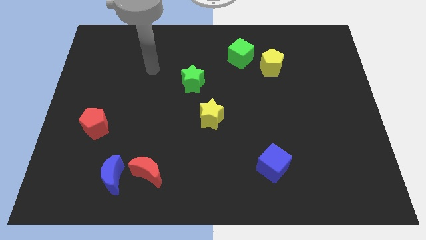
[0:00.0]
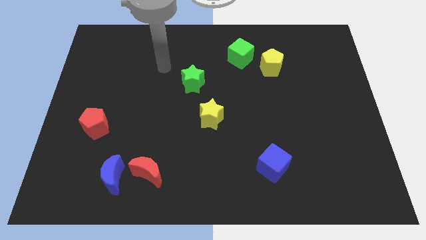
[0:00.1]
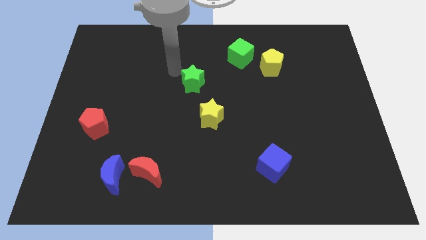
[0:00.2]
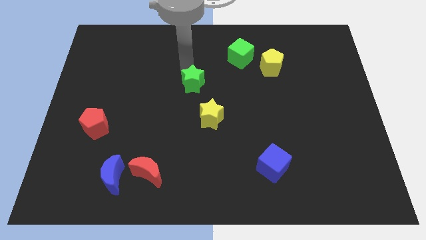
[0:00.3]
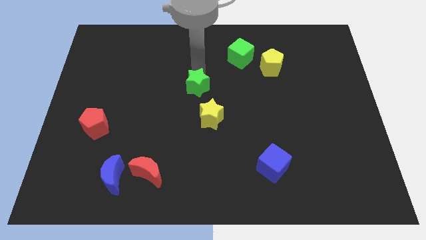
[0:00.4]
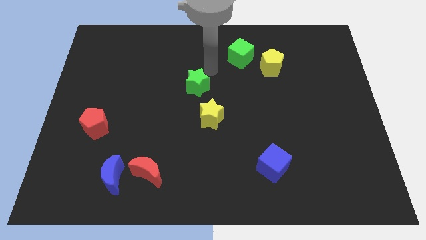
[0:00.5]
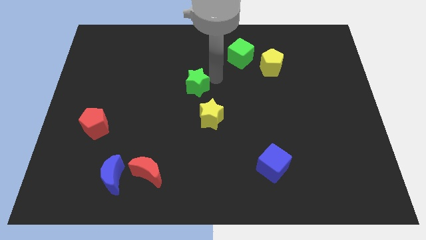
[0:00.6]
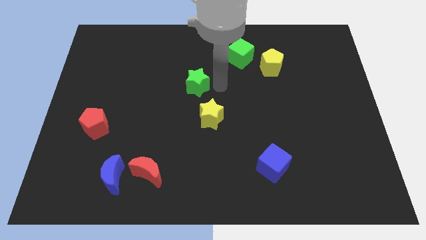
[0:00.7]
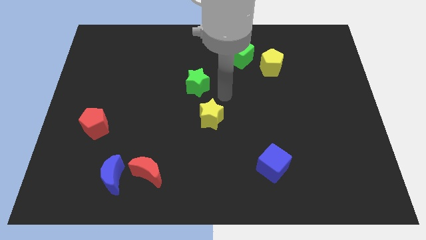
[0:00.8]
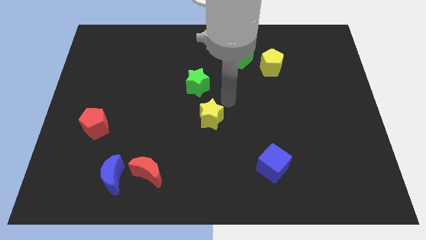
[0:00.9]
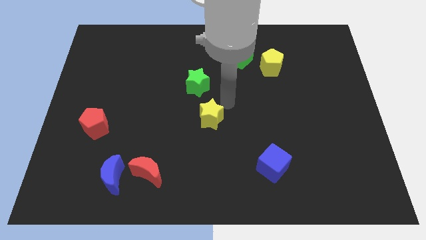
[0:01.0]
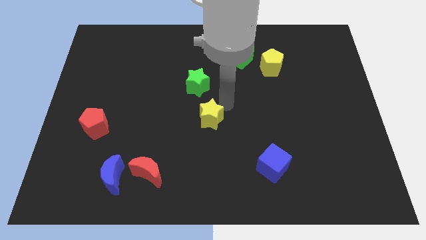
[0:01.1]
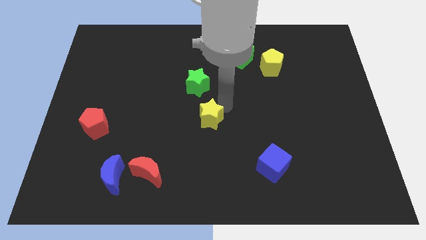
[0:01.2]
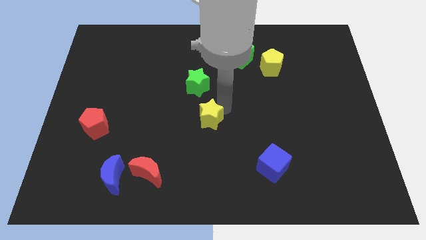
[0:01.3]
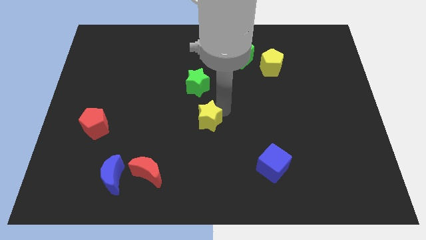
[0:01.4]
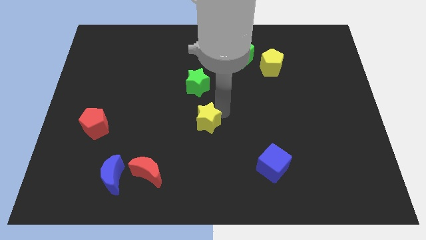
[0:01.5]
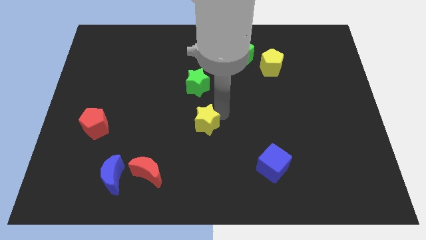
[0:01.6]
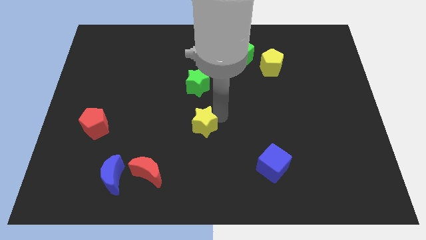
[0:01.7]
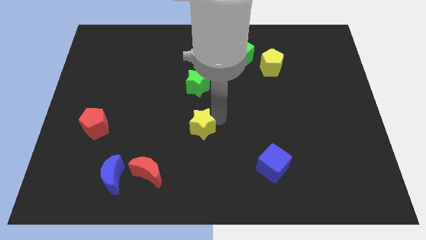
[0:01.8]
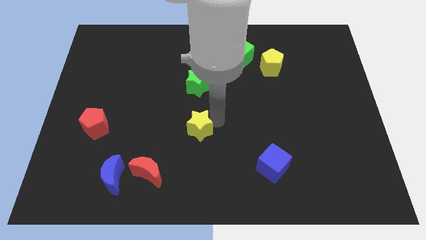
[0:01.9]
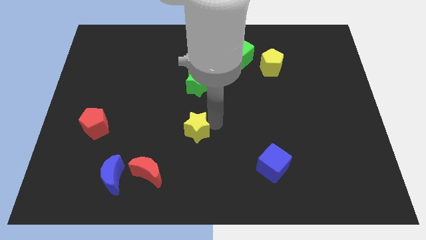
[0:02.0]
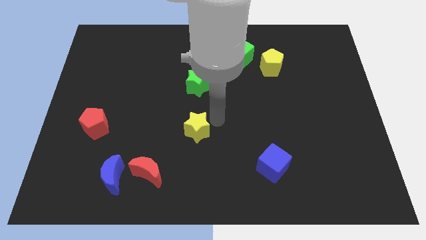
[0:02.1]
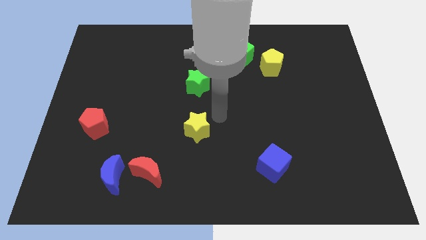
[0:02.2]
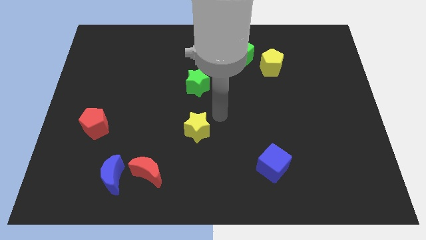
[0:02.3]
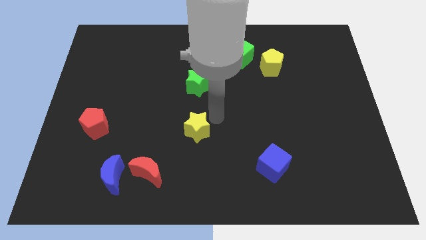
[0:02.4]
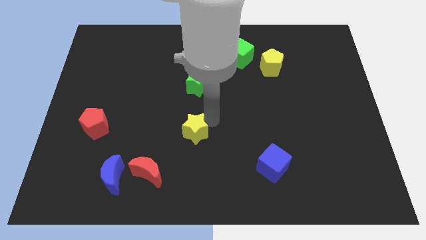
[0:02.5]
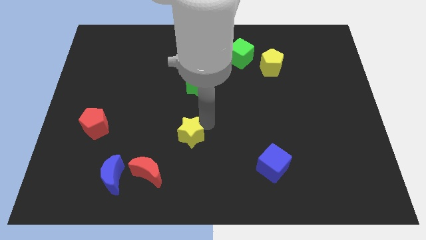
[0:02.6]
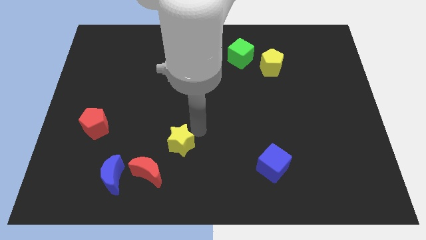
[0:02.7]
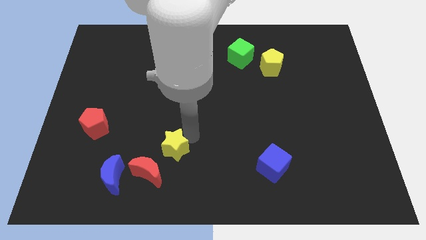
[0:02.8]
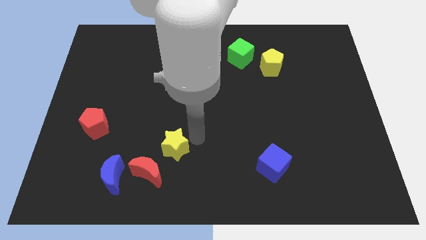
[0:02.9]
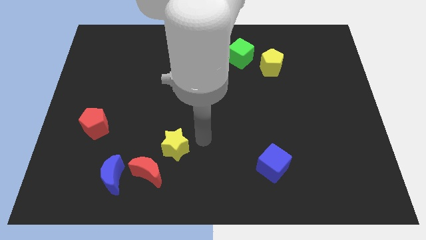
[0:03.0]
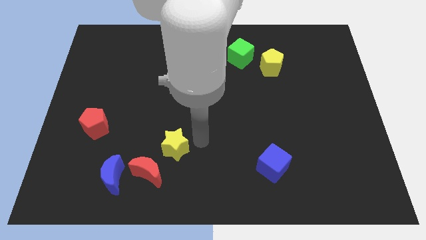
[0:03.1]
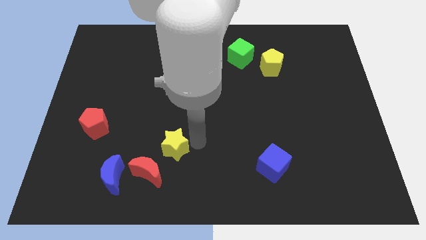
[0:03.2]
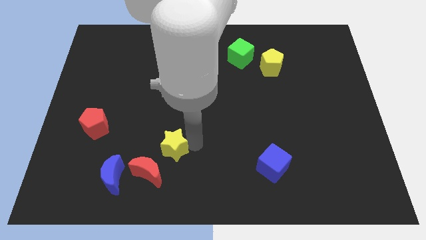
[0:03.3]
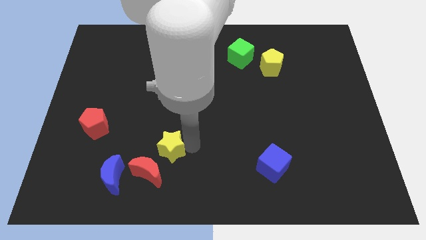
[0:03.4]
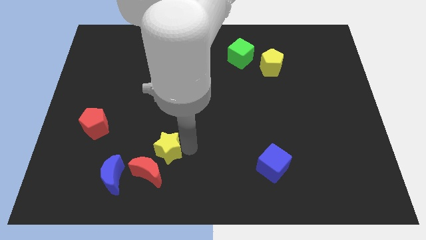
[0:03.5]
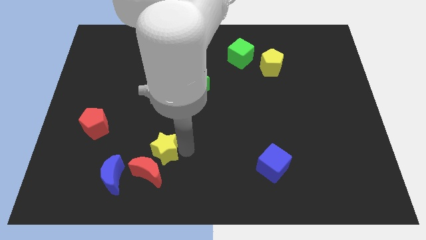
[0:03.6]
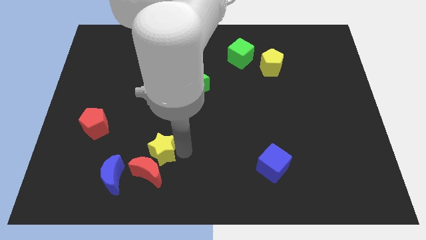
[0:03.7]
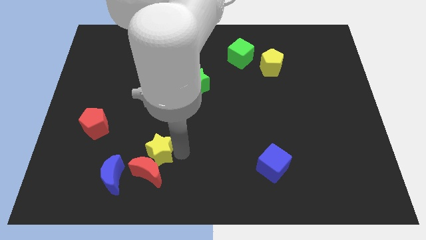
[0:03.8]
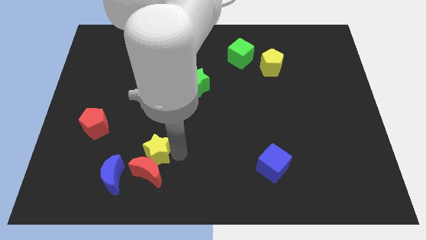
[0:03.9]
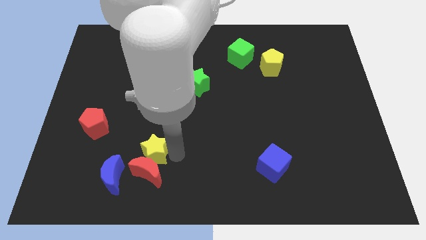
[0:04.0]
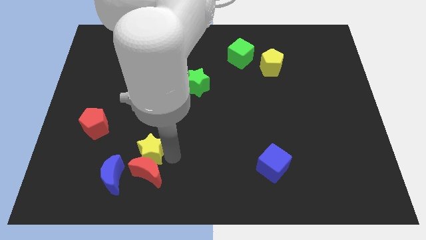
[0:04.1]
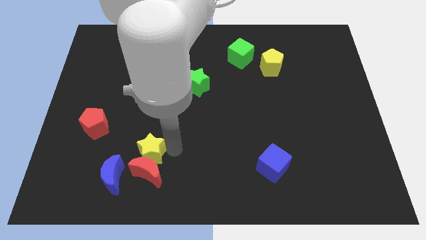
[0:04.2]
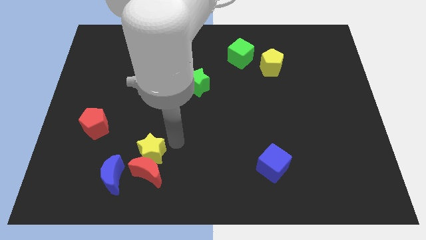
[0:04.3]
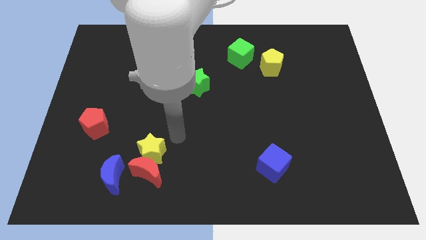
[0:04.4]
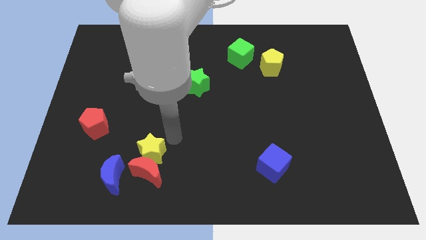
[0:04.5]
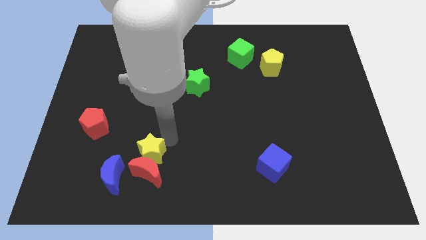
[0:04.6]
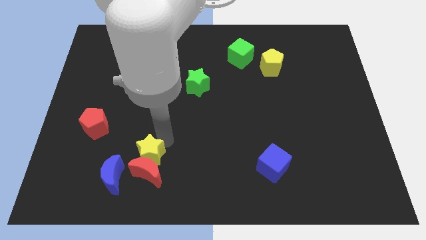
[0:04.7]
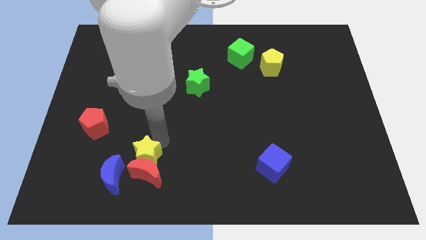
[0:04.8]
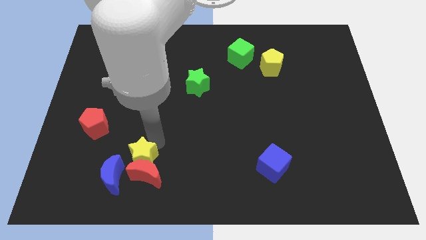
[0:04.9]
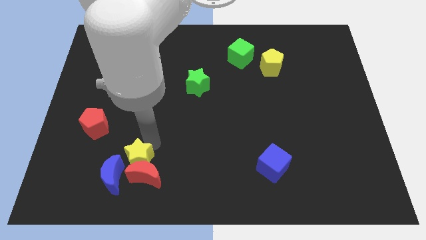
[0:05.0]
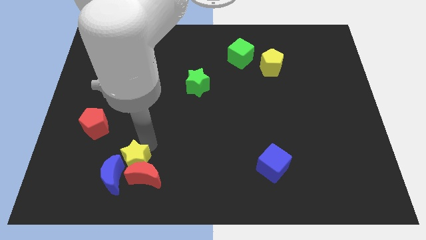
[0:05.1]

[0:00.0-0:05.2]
move the yellow star close to the blue moon

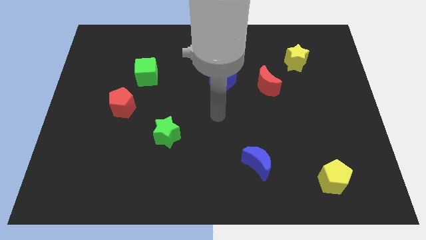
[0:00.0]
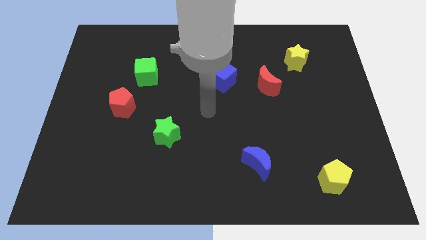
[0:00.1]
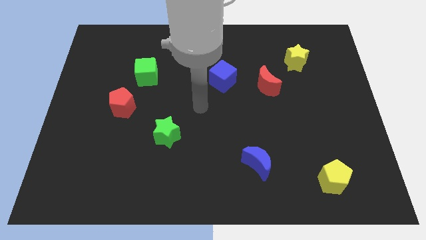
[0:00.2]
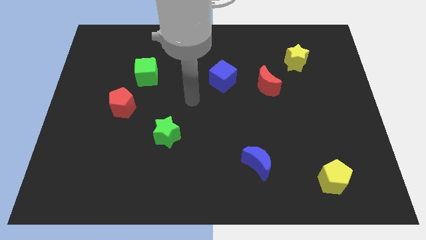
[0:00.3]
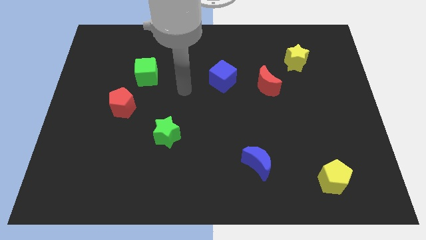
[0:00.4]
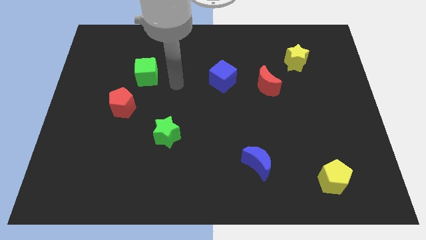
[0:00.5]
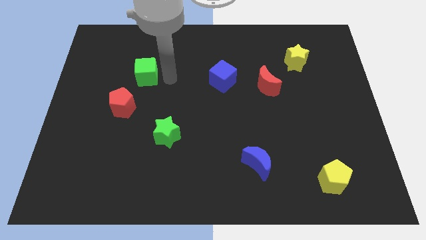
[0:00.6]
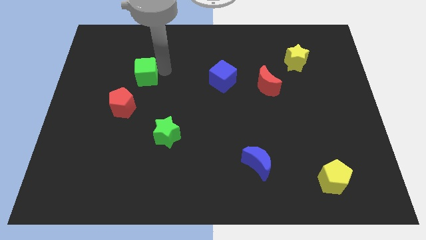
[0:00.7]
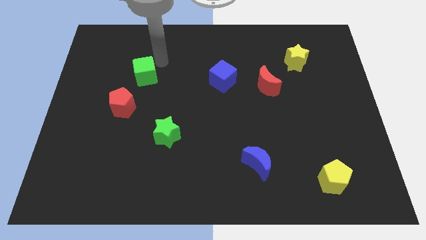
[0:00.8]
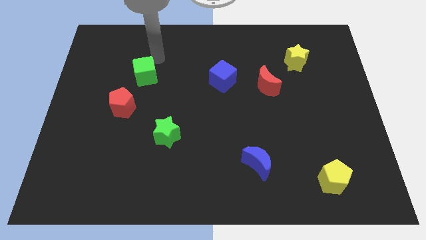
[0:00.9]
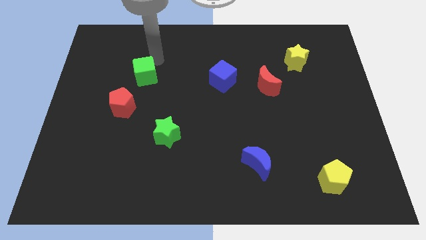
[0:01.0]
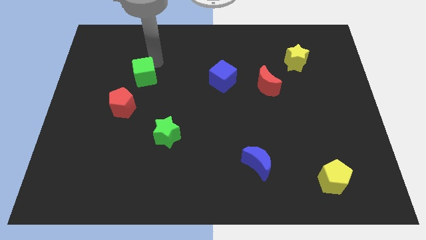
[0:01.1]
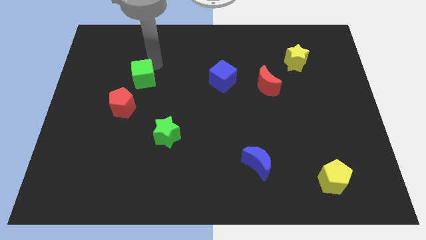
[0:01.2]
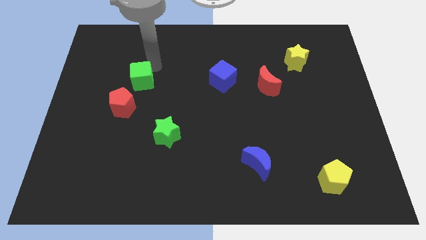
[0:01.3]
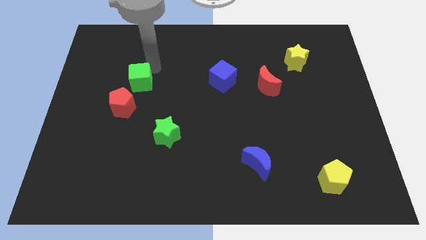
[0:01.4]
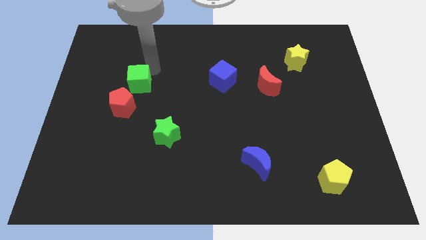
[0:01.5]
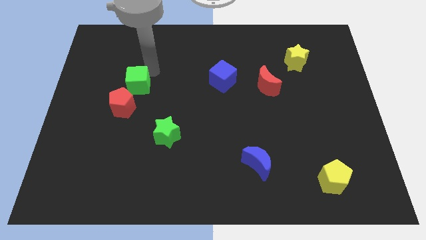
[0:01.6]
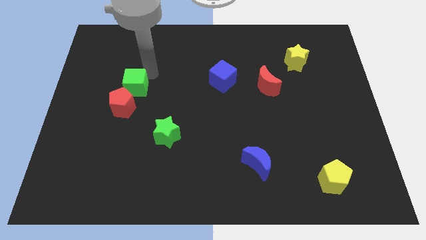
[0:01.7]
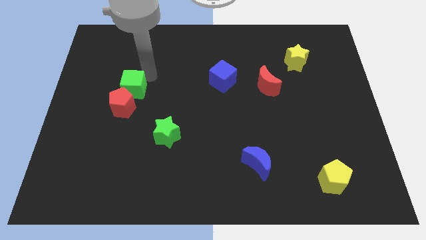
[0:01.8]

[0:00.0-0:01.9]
put the green cube next to the red pentagon
